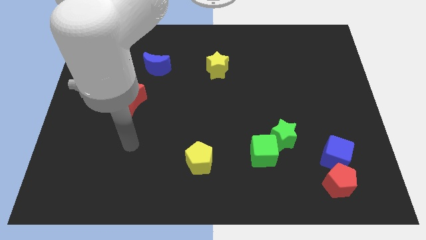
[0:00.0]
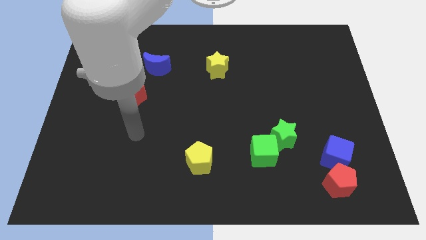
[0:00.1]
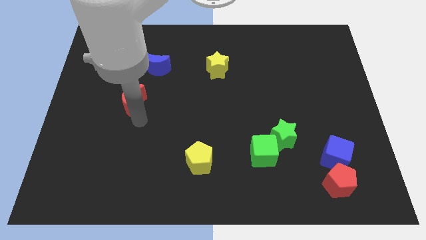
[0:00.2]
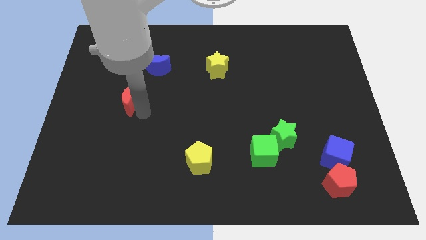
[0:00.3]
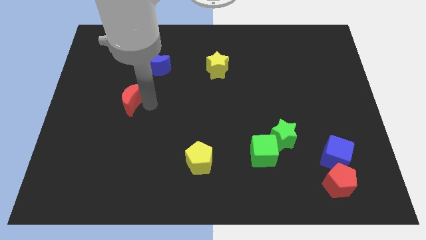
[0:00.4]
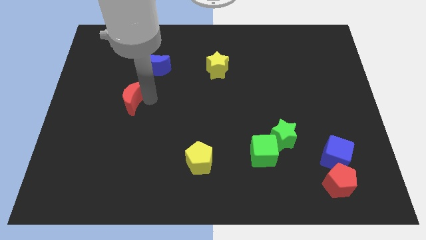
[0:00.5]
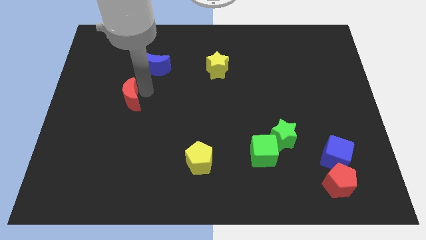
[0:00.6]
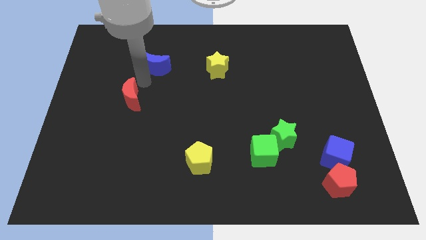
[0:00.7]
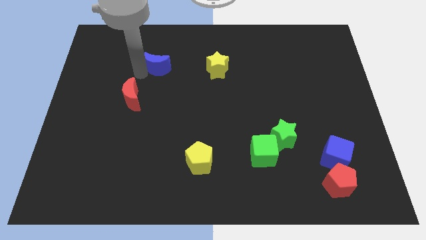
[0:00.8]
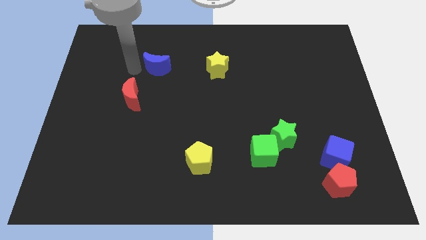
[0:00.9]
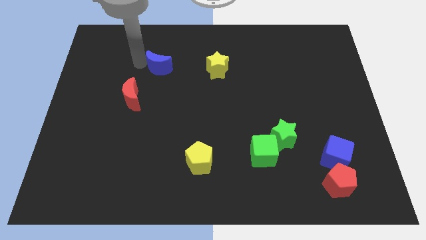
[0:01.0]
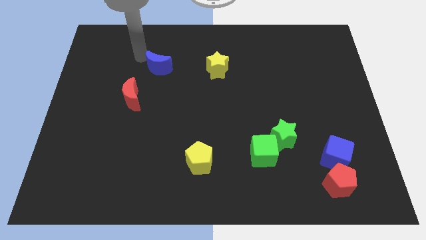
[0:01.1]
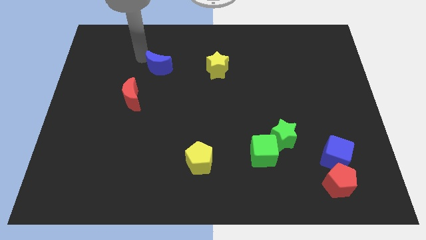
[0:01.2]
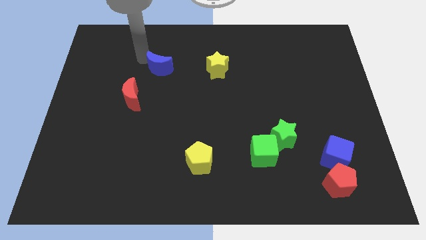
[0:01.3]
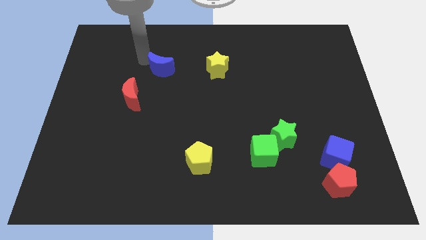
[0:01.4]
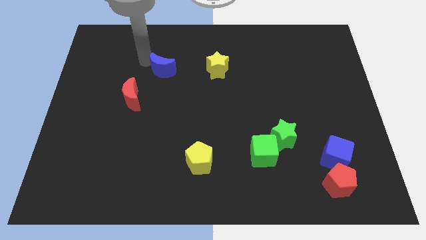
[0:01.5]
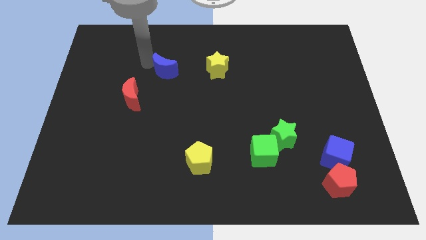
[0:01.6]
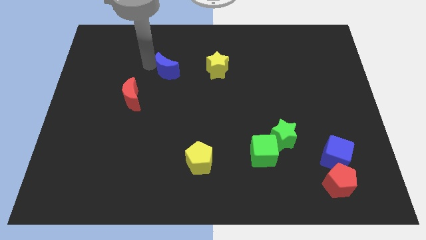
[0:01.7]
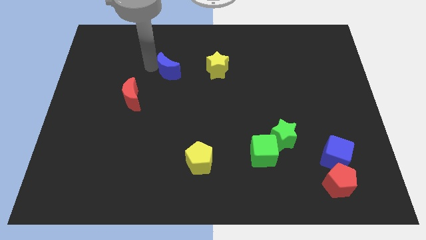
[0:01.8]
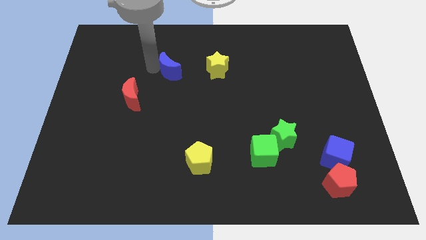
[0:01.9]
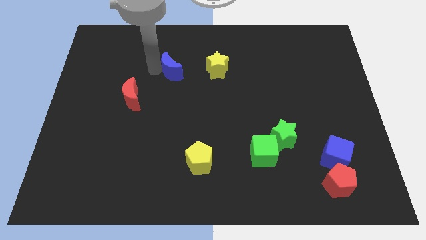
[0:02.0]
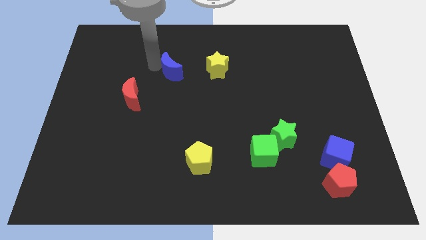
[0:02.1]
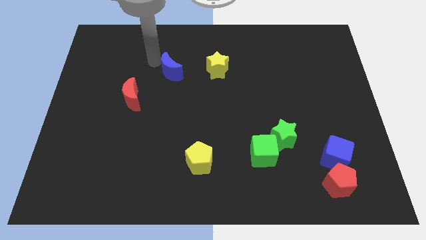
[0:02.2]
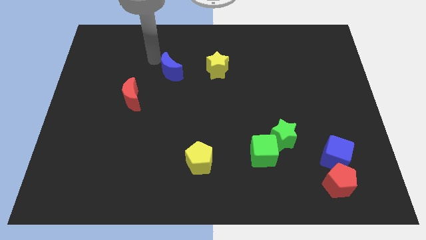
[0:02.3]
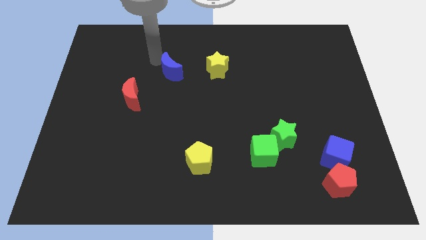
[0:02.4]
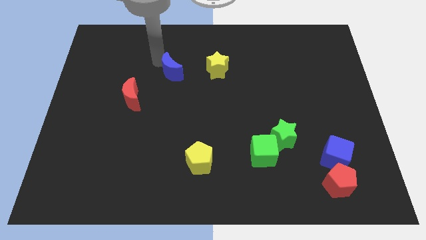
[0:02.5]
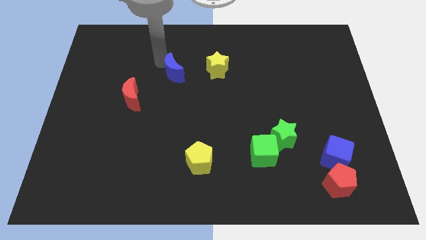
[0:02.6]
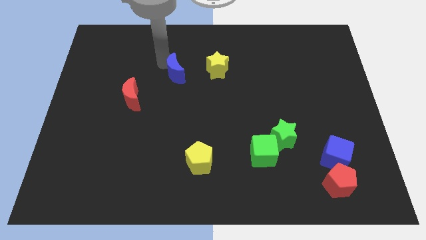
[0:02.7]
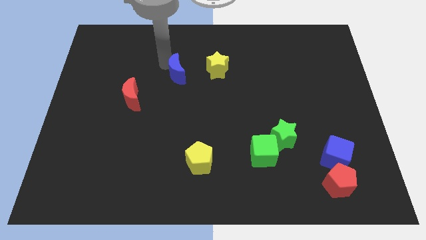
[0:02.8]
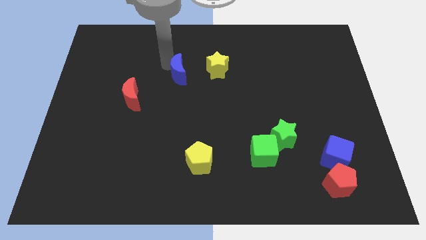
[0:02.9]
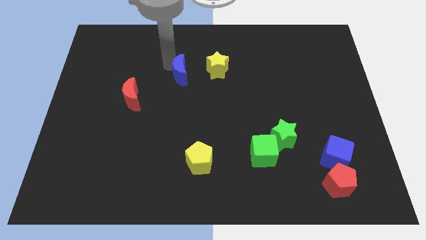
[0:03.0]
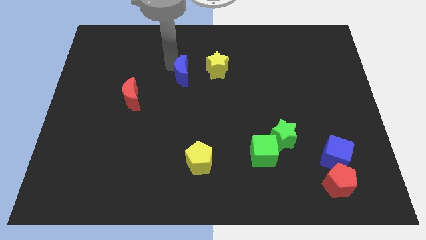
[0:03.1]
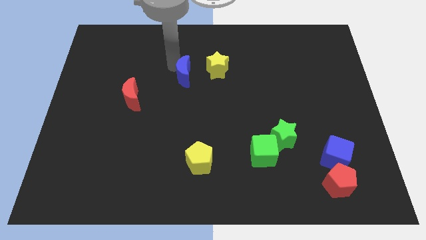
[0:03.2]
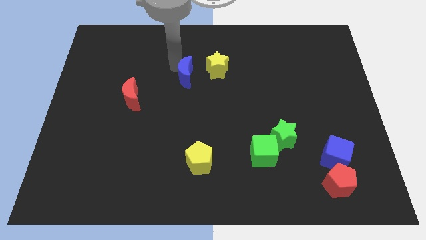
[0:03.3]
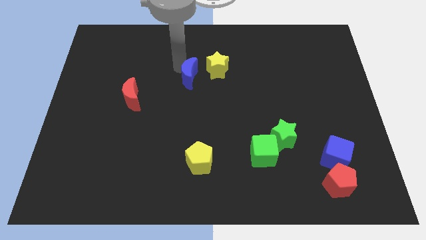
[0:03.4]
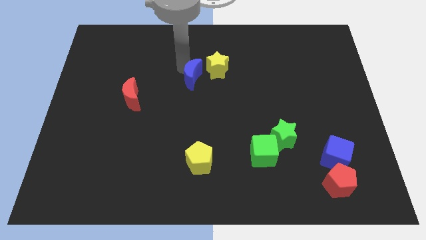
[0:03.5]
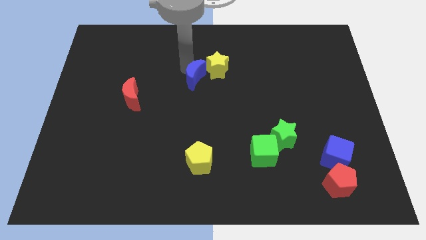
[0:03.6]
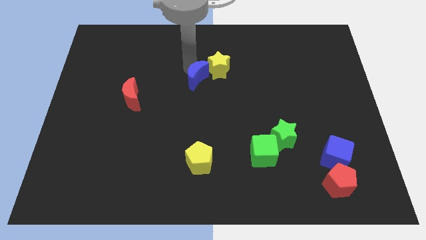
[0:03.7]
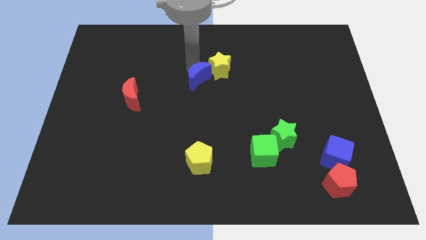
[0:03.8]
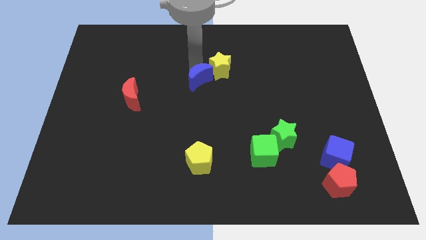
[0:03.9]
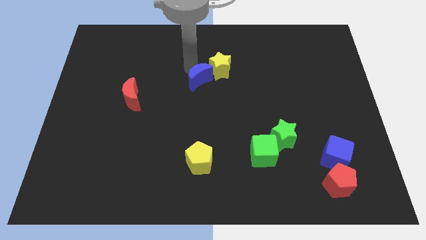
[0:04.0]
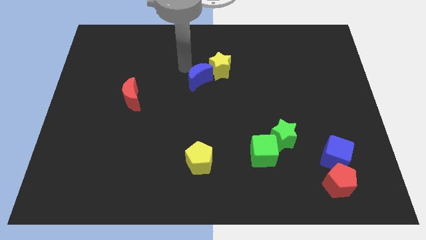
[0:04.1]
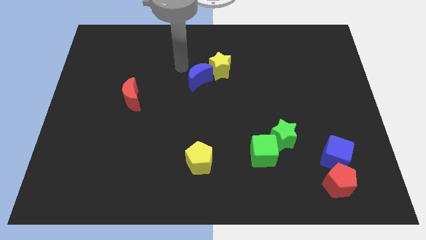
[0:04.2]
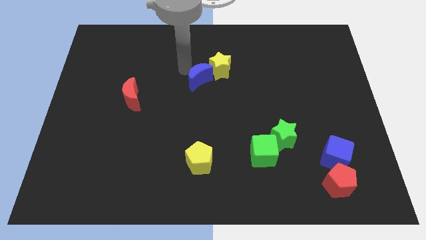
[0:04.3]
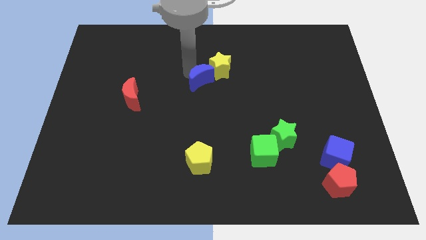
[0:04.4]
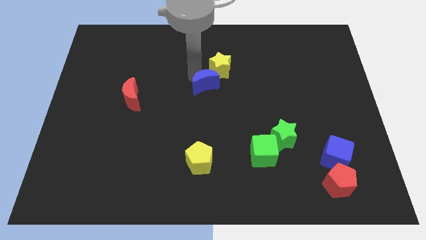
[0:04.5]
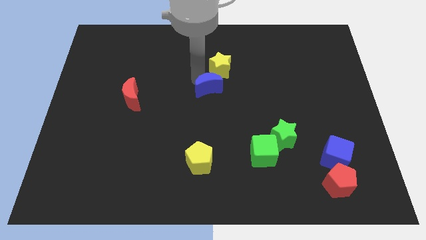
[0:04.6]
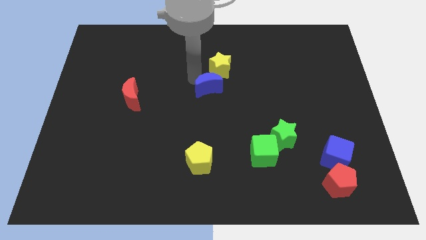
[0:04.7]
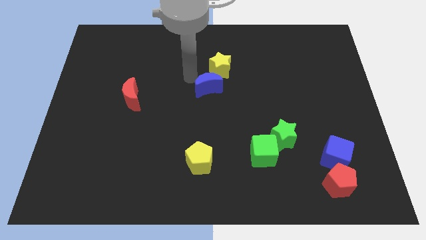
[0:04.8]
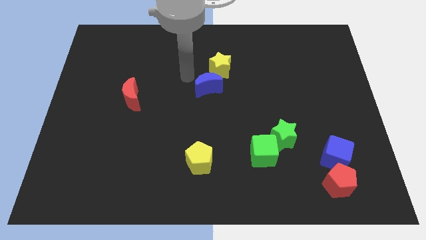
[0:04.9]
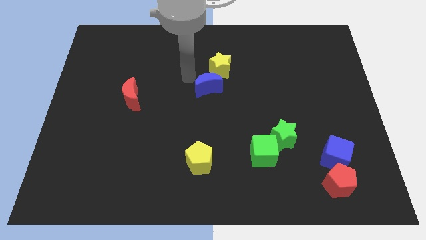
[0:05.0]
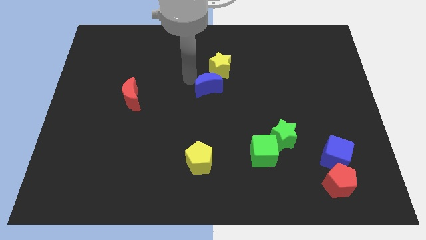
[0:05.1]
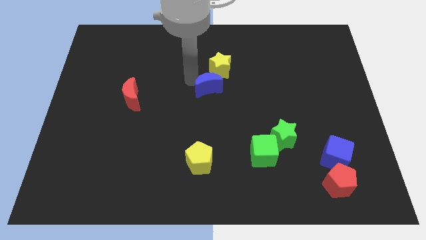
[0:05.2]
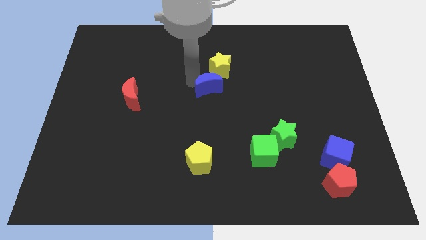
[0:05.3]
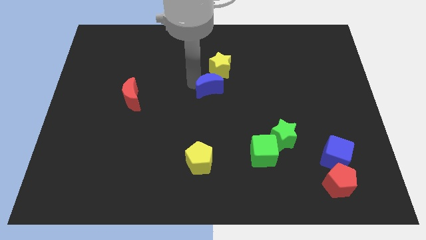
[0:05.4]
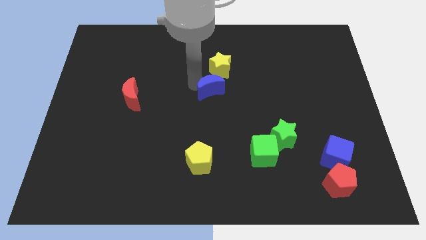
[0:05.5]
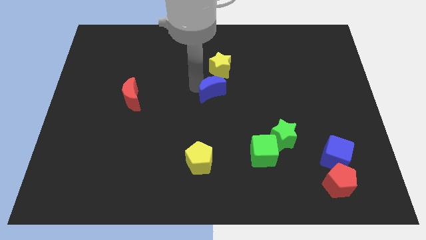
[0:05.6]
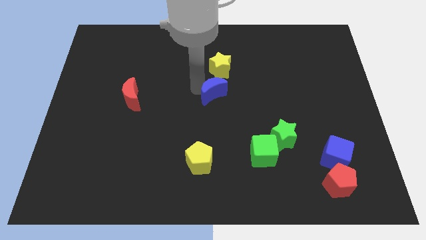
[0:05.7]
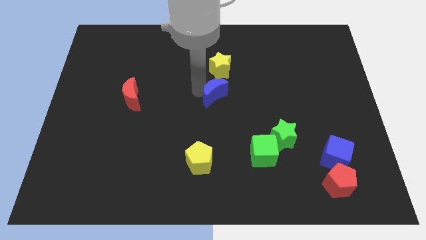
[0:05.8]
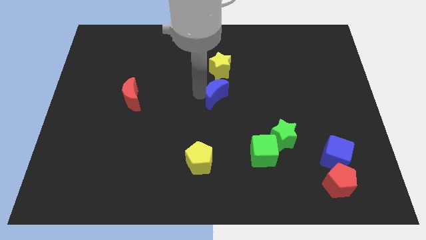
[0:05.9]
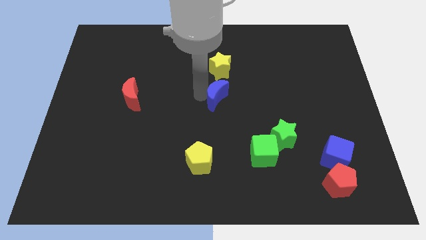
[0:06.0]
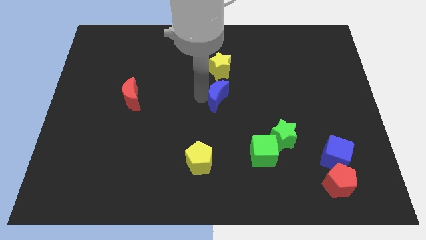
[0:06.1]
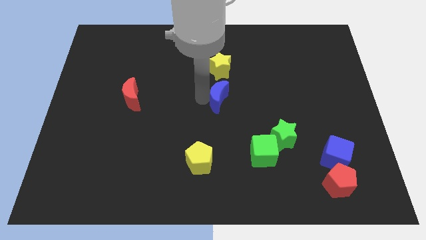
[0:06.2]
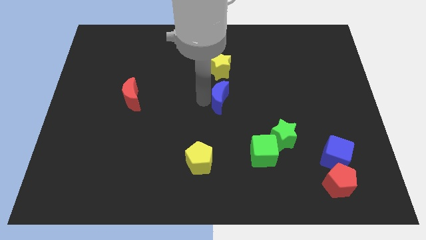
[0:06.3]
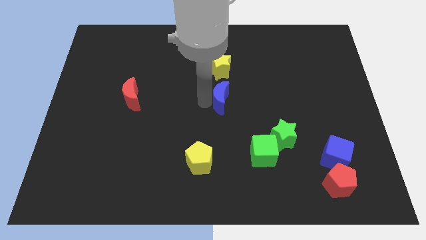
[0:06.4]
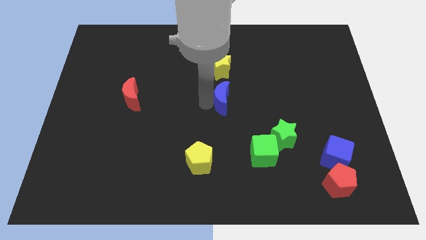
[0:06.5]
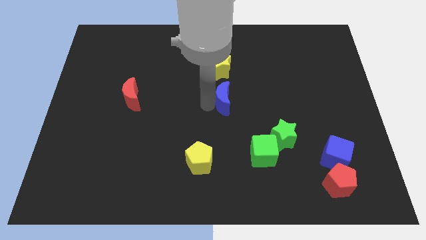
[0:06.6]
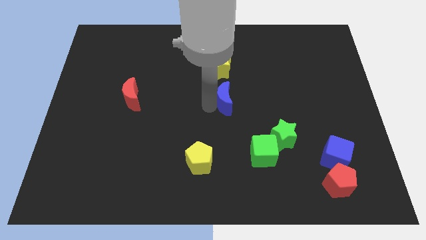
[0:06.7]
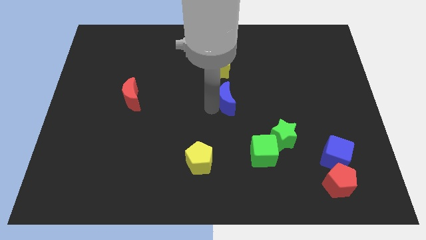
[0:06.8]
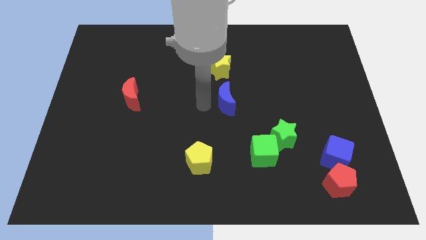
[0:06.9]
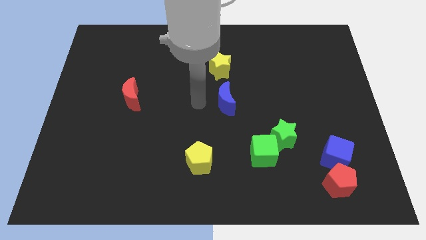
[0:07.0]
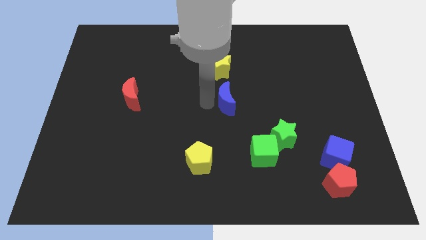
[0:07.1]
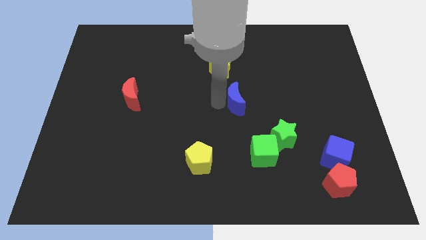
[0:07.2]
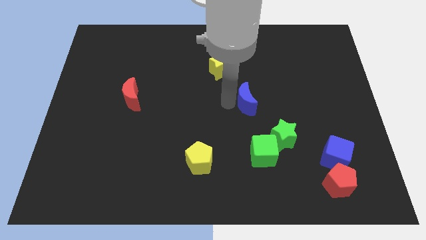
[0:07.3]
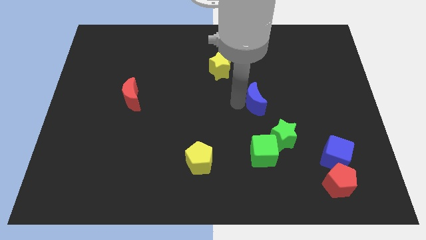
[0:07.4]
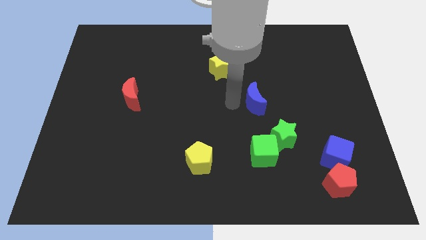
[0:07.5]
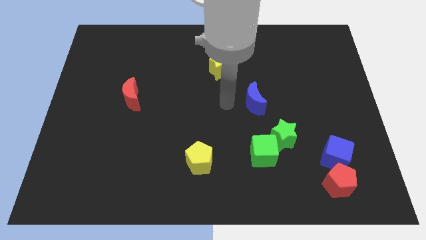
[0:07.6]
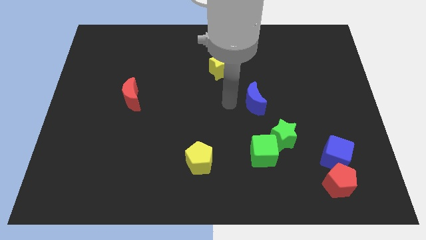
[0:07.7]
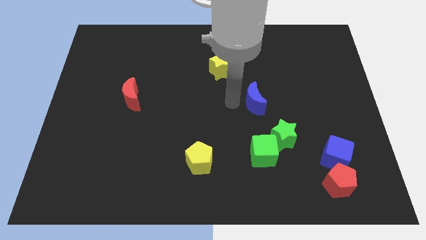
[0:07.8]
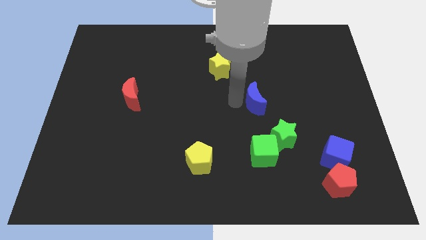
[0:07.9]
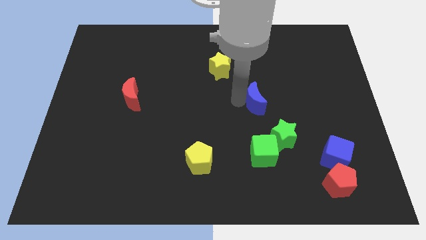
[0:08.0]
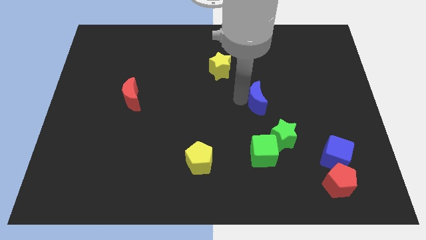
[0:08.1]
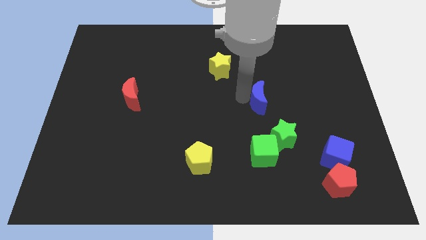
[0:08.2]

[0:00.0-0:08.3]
move the blue moon to the top side of the green star
